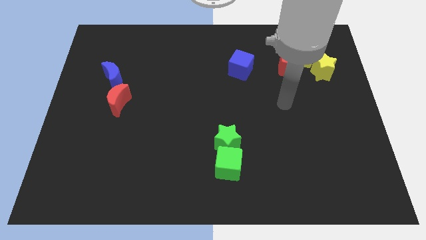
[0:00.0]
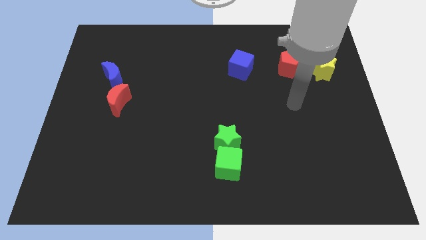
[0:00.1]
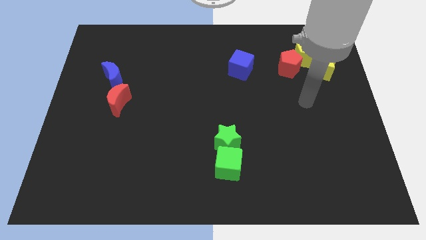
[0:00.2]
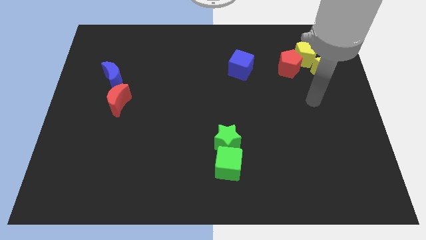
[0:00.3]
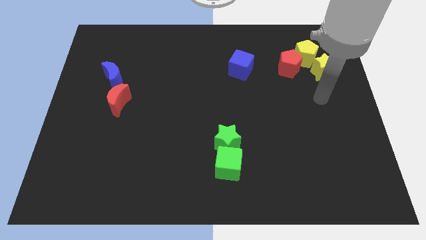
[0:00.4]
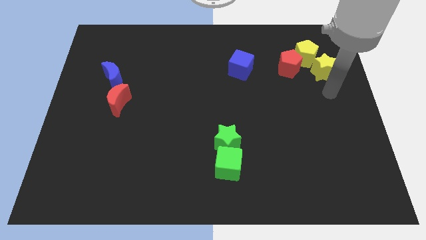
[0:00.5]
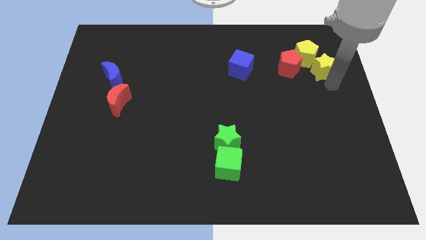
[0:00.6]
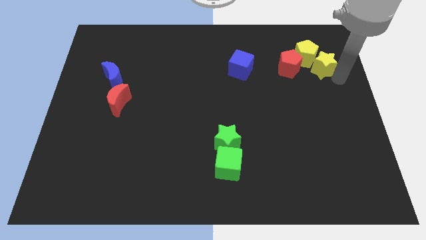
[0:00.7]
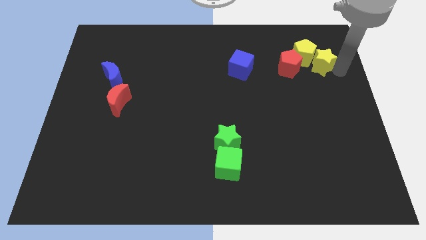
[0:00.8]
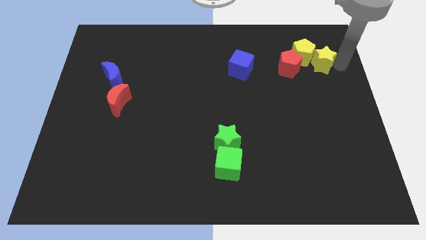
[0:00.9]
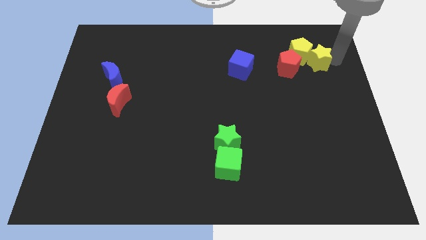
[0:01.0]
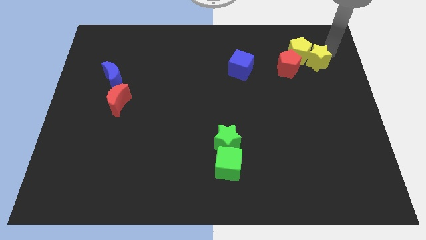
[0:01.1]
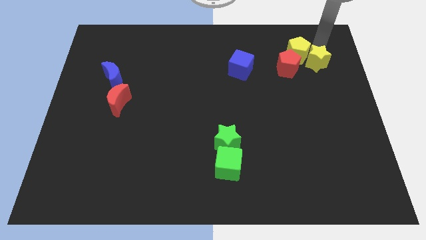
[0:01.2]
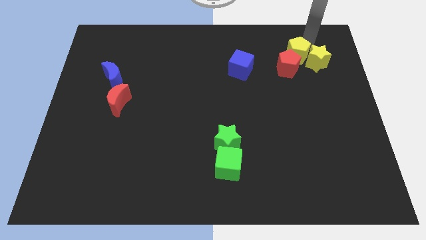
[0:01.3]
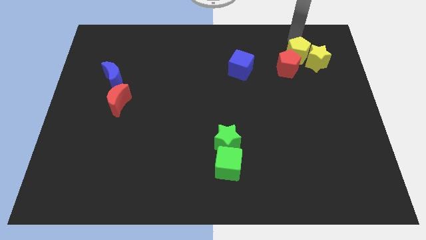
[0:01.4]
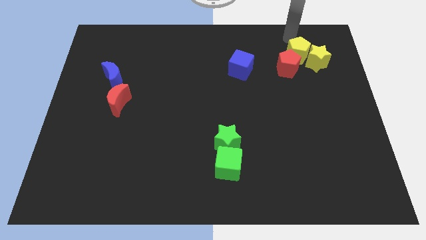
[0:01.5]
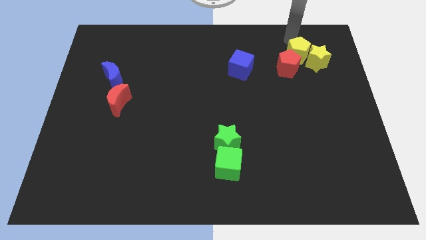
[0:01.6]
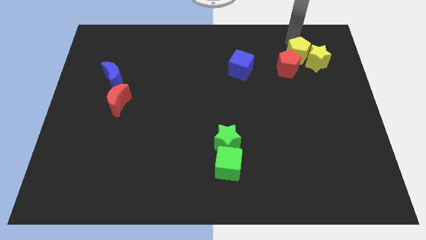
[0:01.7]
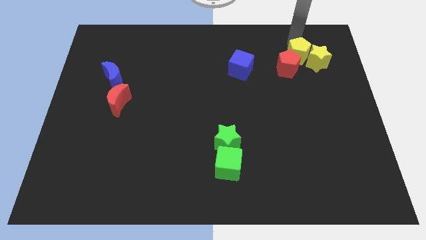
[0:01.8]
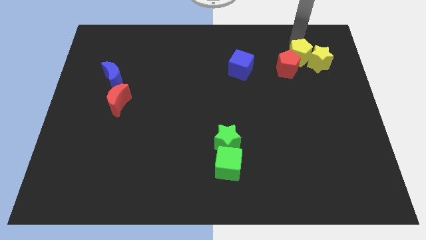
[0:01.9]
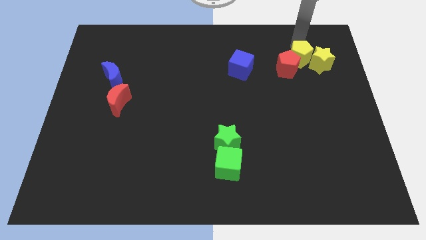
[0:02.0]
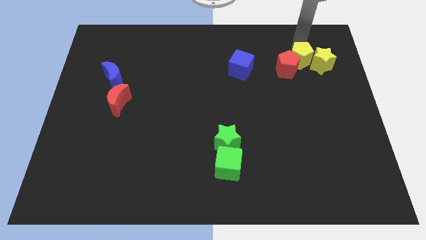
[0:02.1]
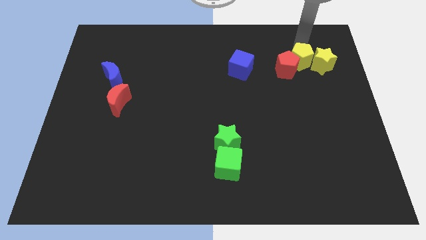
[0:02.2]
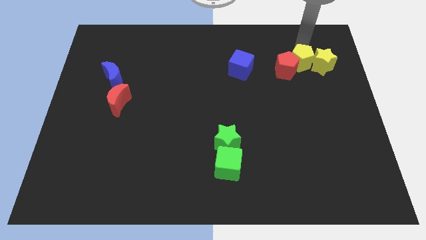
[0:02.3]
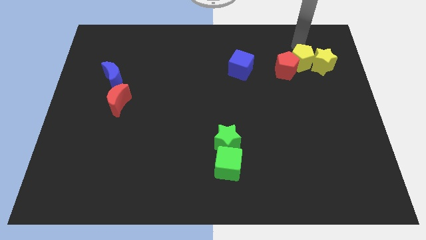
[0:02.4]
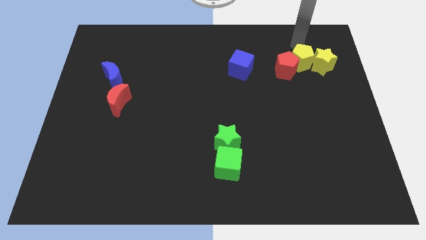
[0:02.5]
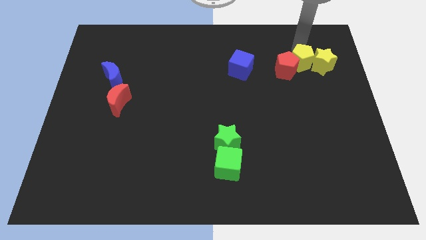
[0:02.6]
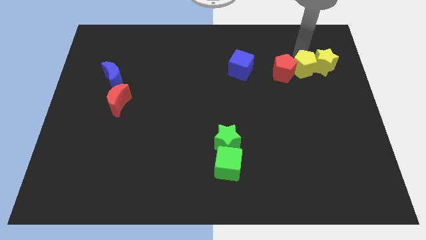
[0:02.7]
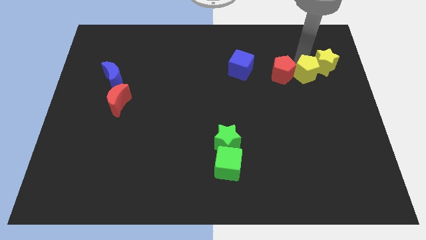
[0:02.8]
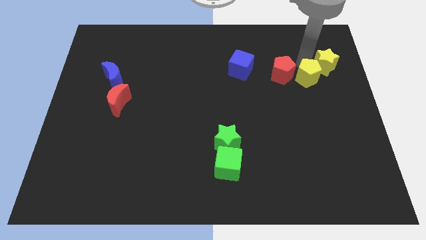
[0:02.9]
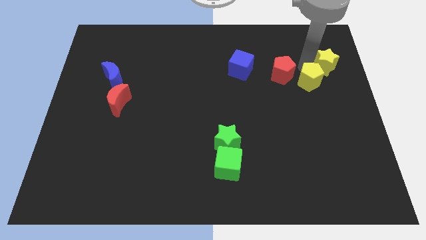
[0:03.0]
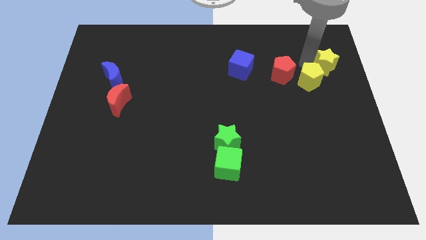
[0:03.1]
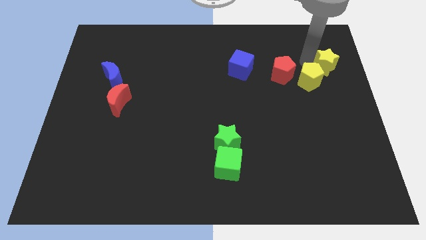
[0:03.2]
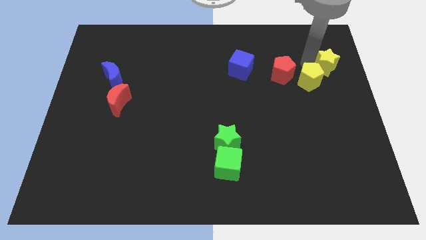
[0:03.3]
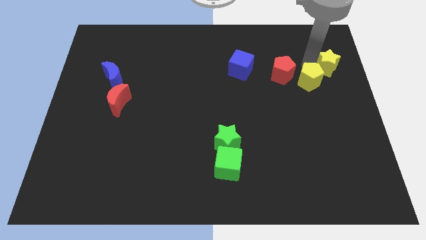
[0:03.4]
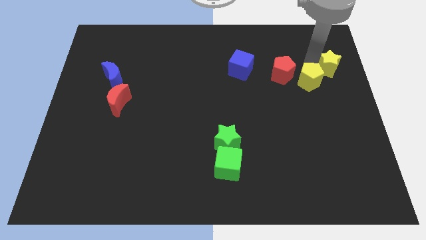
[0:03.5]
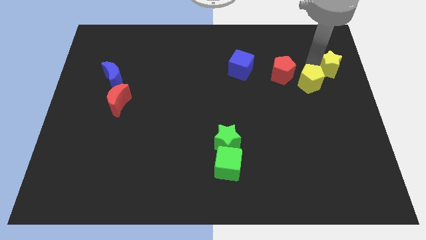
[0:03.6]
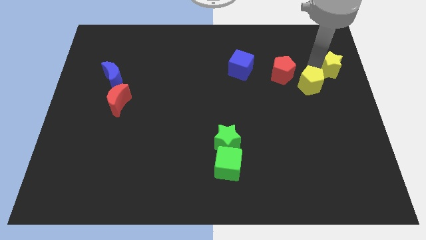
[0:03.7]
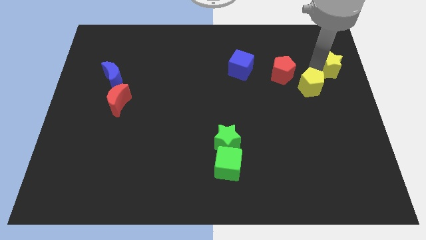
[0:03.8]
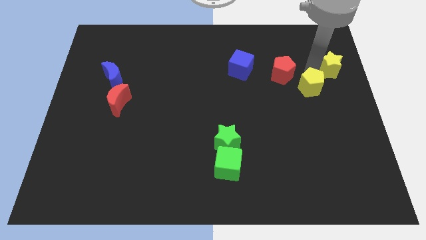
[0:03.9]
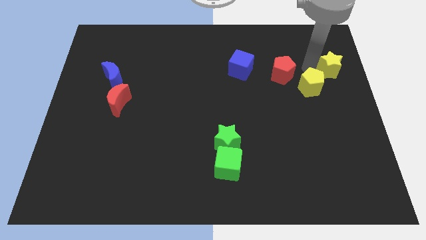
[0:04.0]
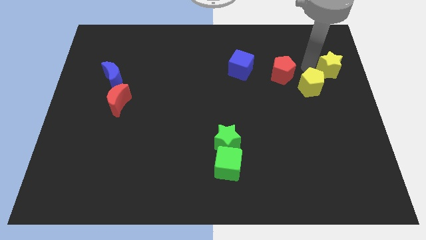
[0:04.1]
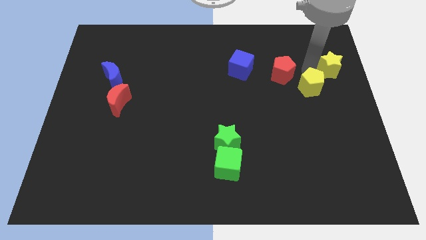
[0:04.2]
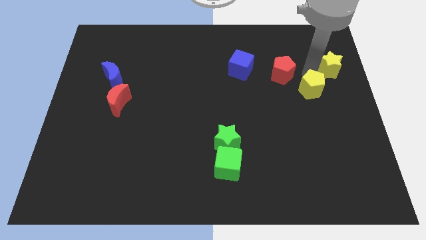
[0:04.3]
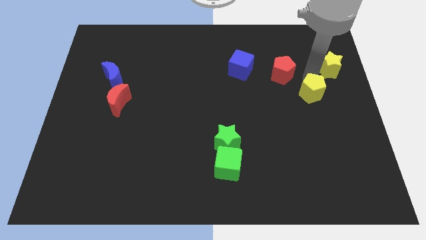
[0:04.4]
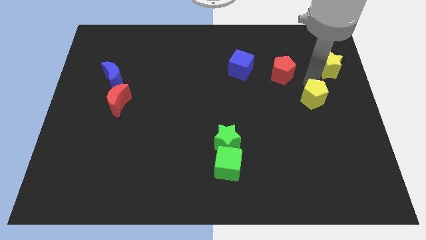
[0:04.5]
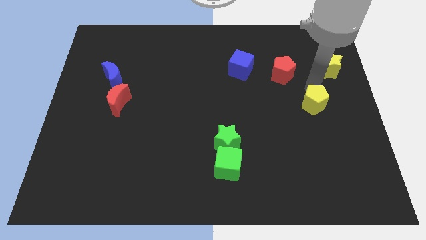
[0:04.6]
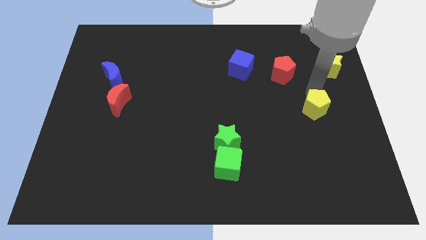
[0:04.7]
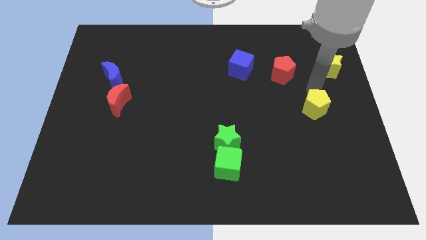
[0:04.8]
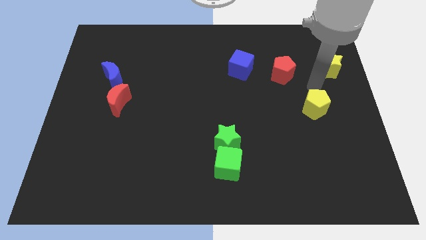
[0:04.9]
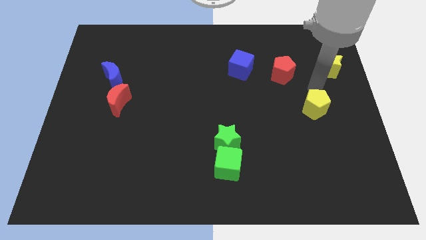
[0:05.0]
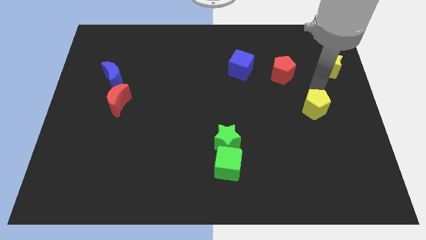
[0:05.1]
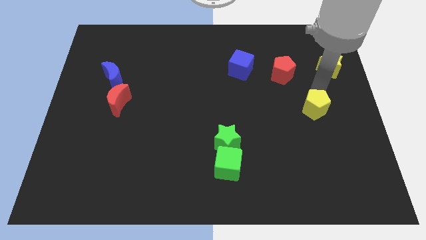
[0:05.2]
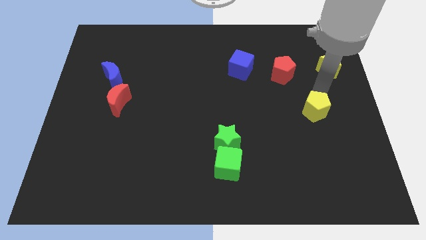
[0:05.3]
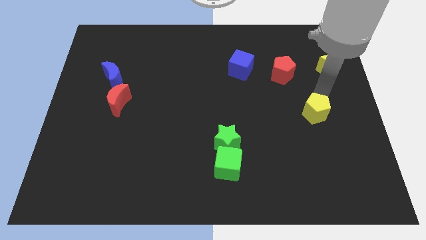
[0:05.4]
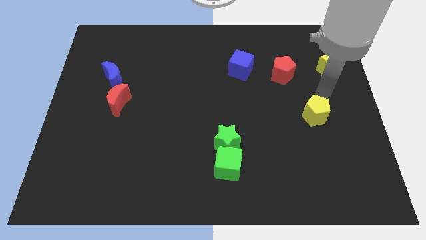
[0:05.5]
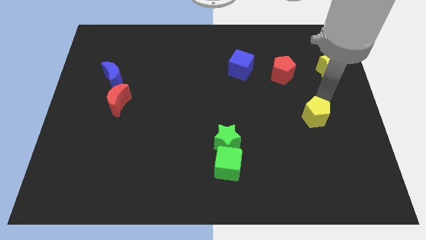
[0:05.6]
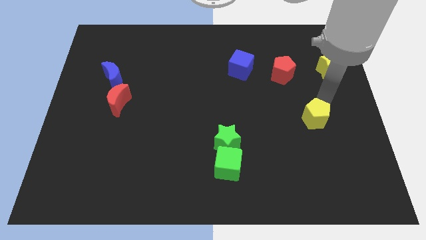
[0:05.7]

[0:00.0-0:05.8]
push the yellow pentagon downwards

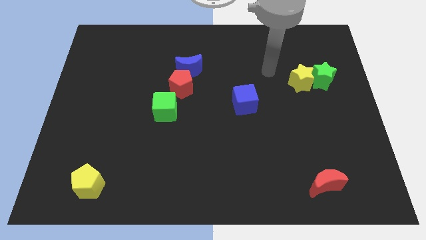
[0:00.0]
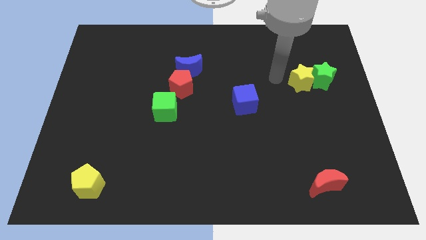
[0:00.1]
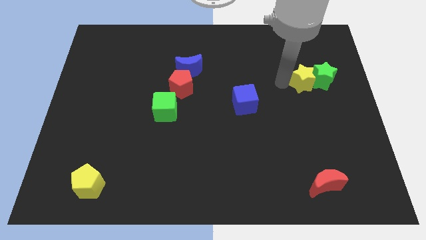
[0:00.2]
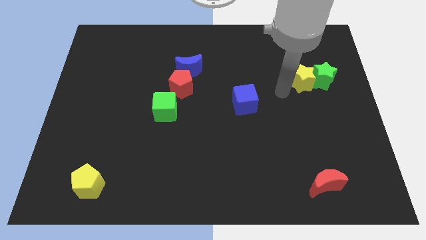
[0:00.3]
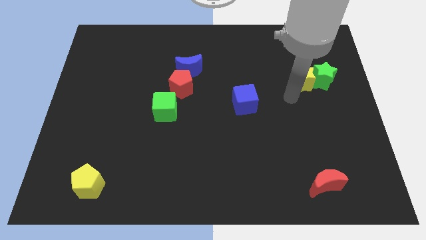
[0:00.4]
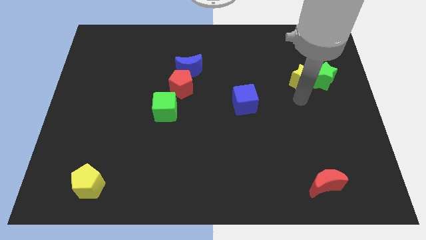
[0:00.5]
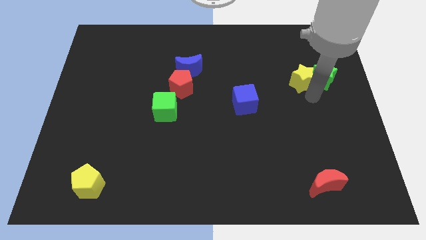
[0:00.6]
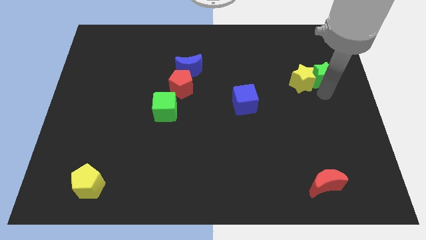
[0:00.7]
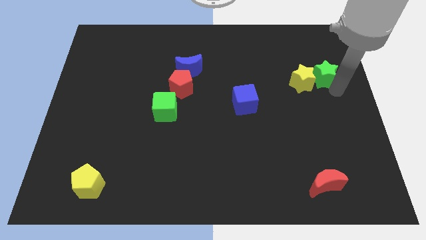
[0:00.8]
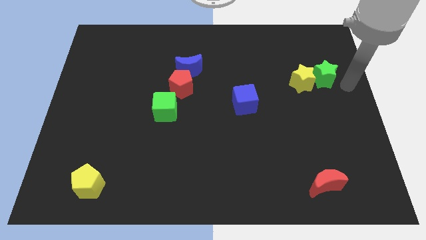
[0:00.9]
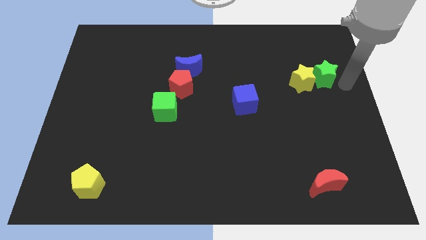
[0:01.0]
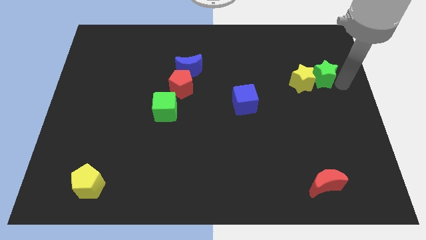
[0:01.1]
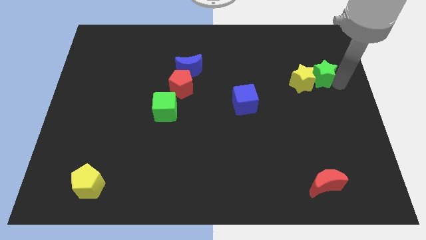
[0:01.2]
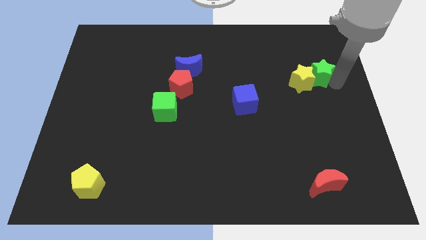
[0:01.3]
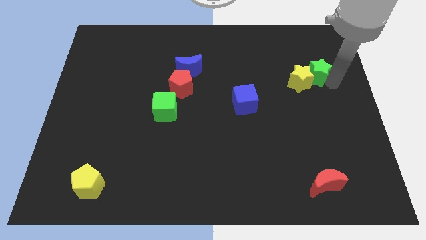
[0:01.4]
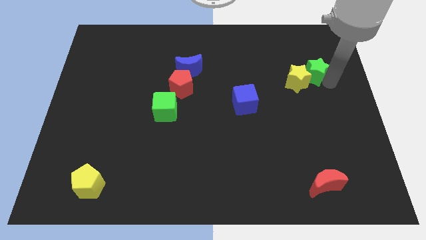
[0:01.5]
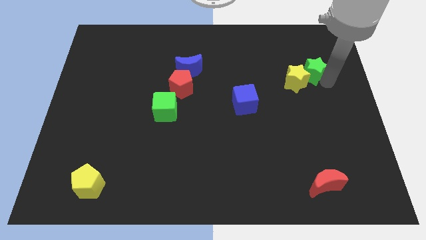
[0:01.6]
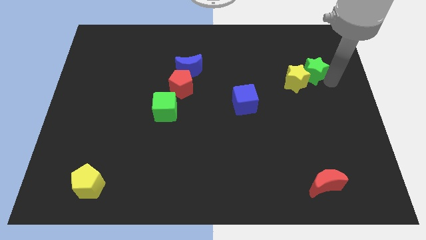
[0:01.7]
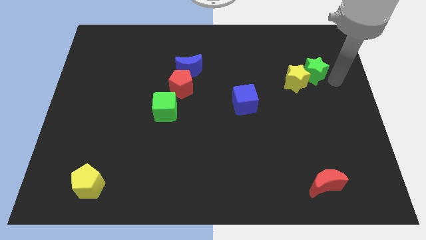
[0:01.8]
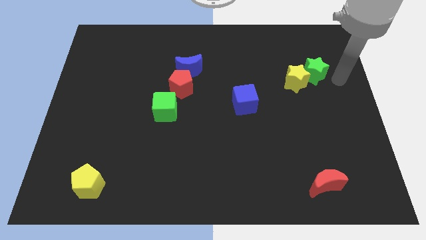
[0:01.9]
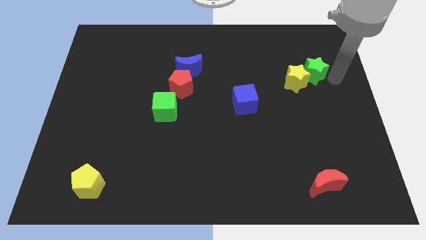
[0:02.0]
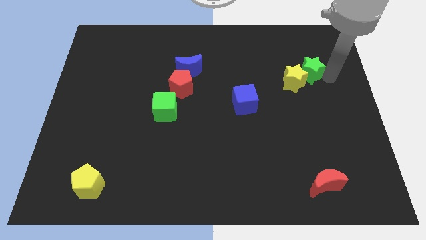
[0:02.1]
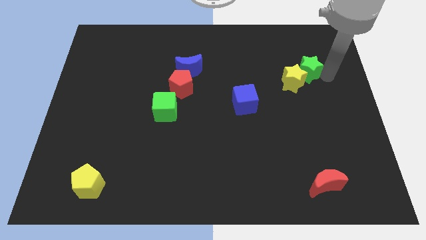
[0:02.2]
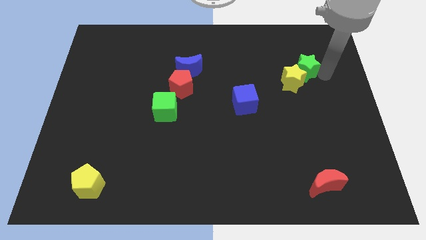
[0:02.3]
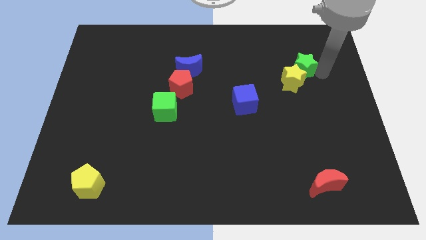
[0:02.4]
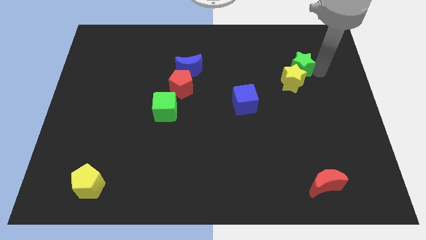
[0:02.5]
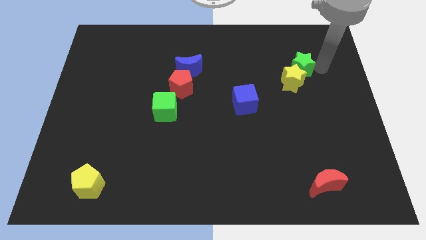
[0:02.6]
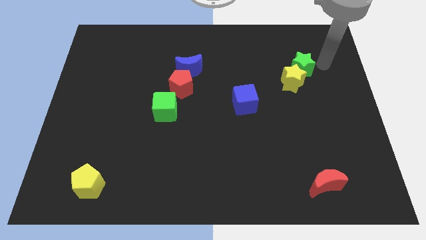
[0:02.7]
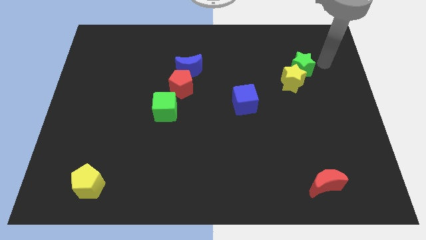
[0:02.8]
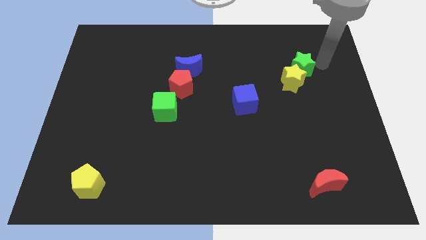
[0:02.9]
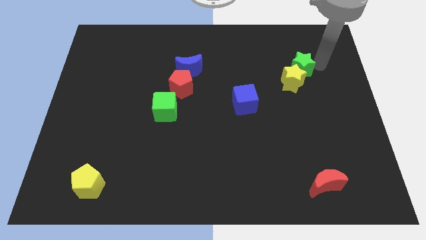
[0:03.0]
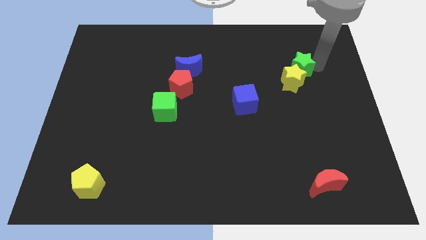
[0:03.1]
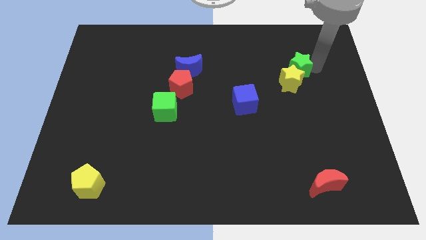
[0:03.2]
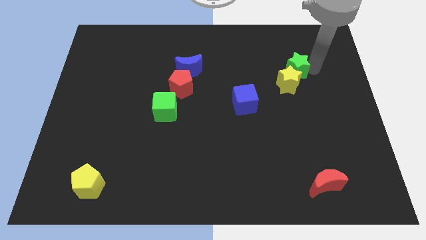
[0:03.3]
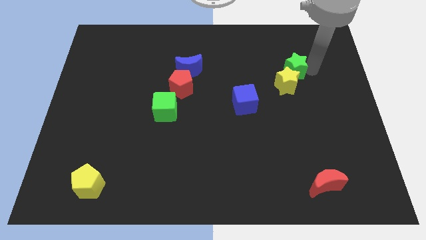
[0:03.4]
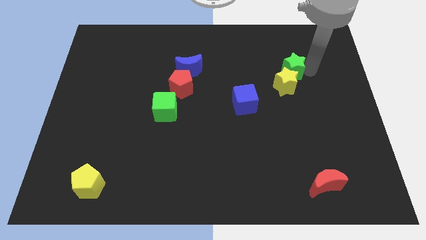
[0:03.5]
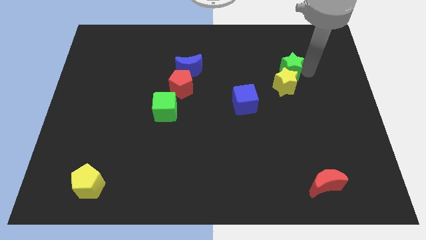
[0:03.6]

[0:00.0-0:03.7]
push the green star slightly left
